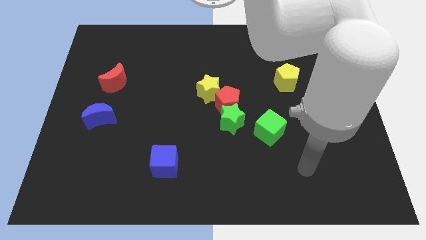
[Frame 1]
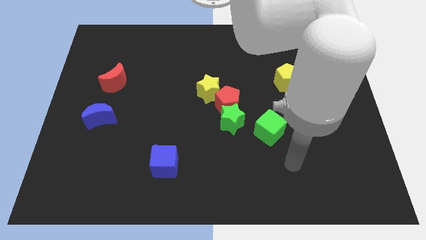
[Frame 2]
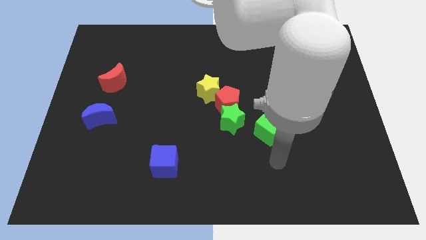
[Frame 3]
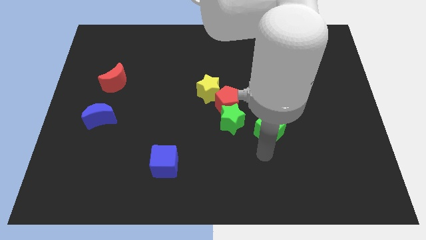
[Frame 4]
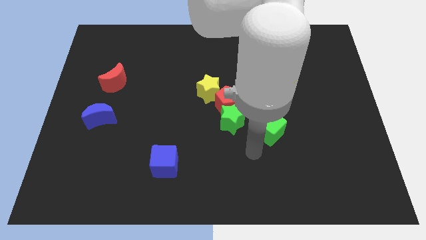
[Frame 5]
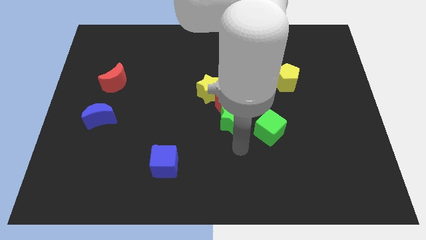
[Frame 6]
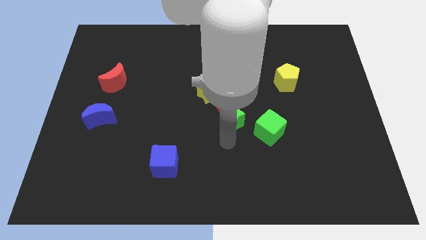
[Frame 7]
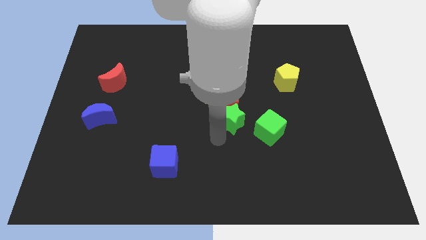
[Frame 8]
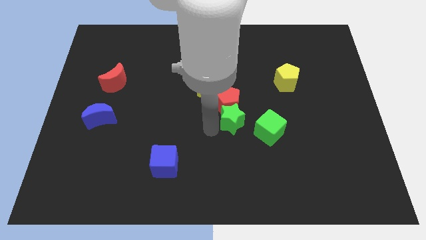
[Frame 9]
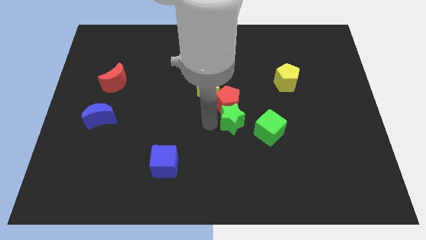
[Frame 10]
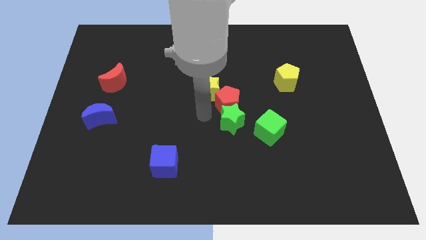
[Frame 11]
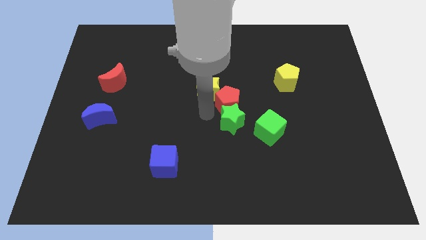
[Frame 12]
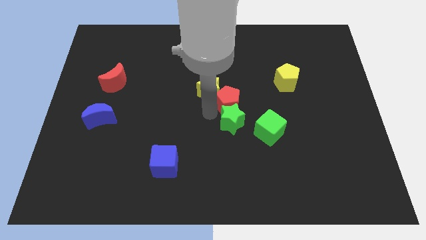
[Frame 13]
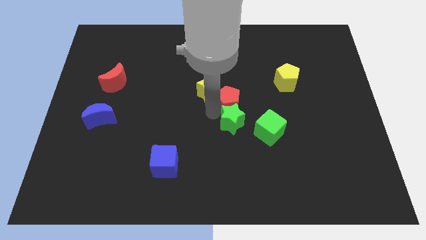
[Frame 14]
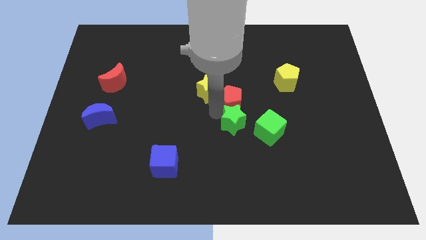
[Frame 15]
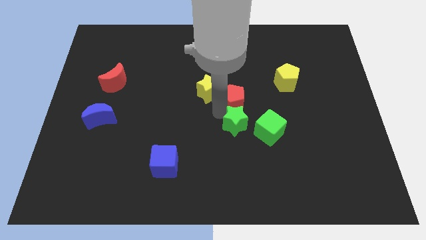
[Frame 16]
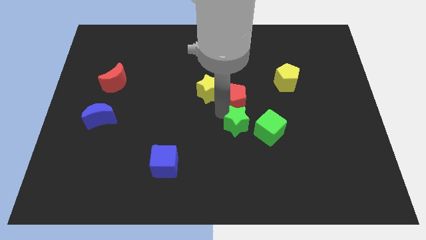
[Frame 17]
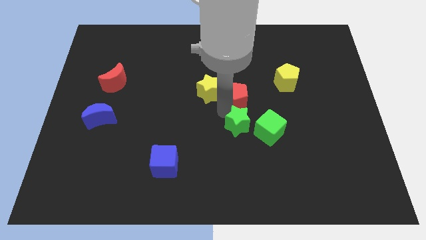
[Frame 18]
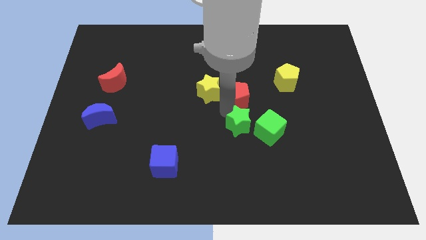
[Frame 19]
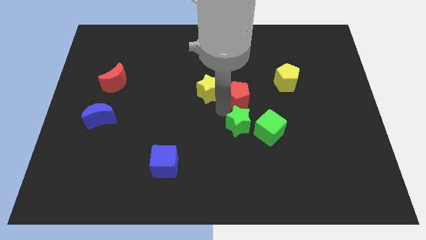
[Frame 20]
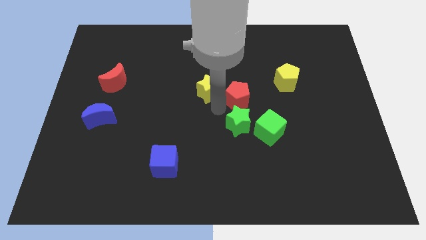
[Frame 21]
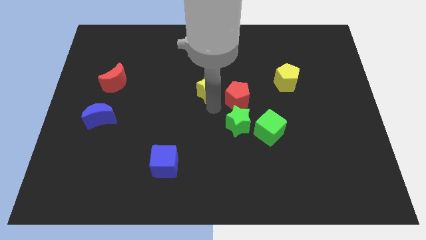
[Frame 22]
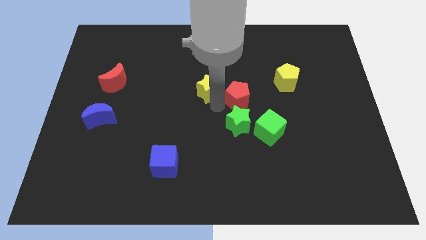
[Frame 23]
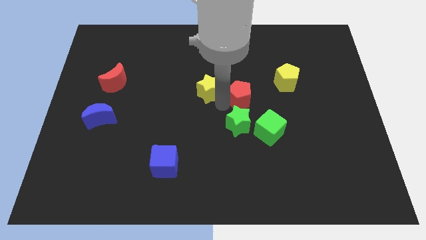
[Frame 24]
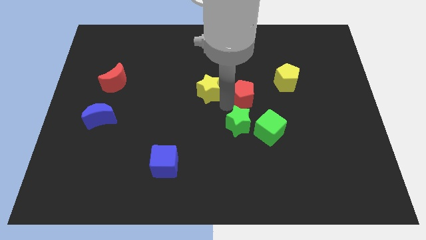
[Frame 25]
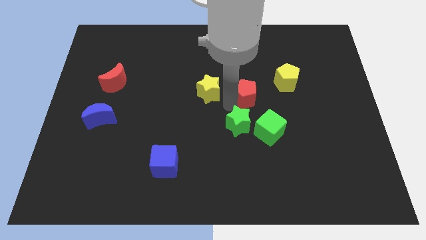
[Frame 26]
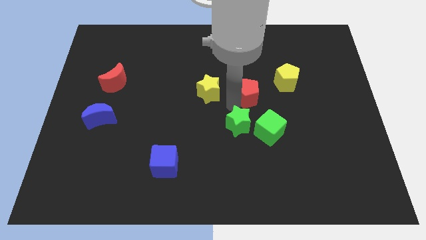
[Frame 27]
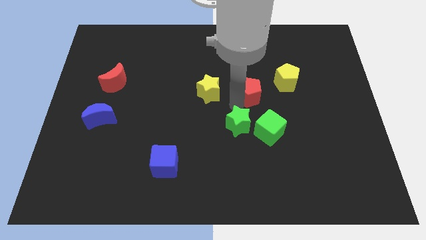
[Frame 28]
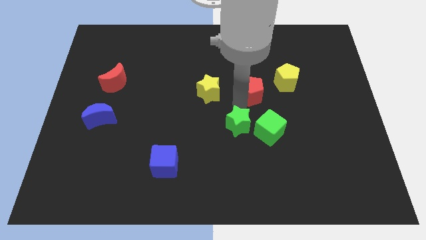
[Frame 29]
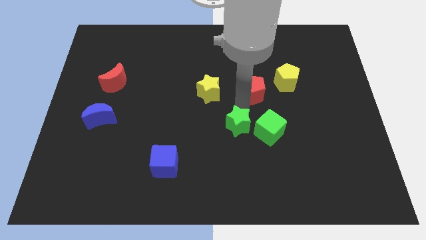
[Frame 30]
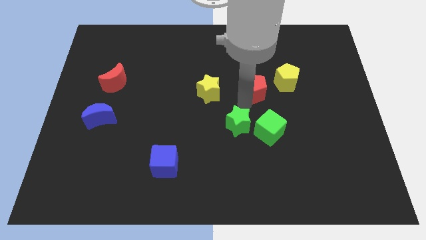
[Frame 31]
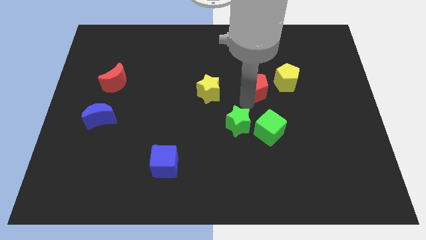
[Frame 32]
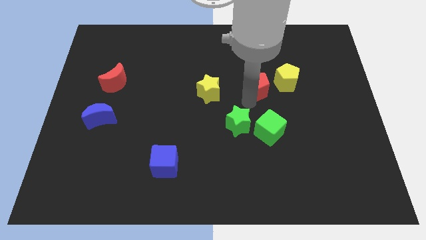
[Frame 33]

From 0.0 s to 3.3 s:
pull the red pentagon apart from the green star and yellow star

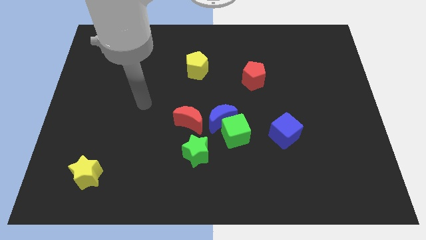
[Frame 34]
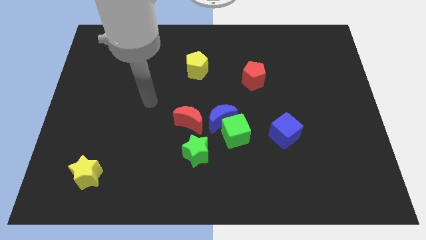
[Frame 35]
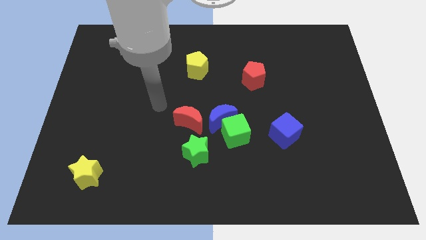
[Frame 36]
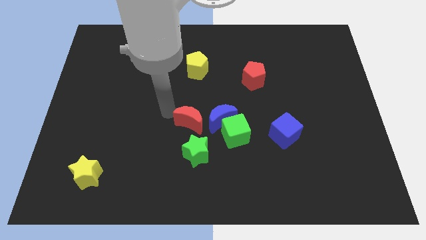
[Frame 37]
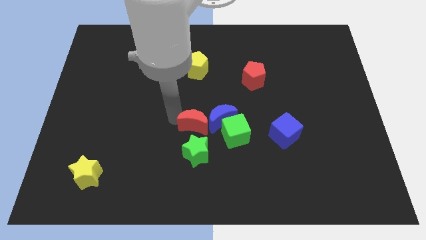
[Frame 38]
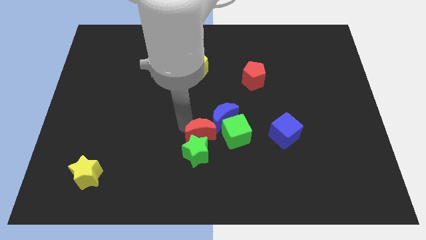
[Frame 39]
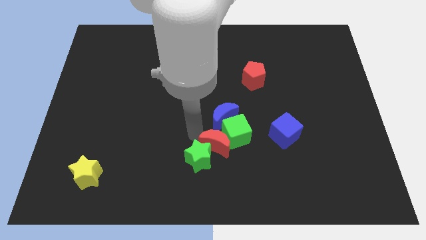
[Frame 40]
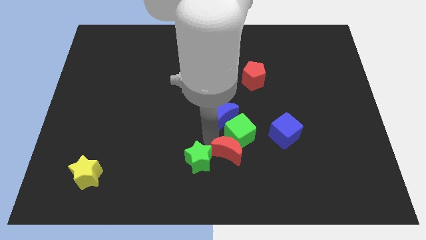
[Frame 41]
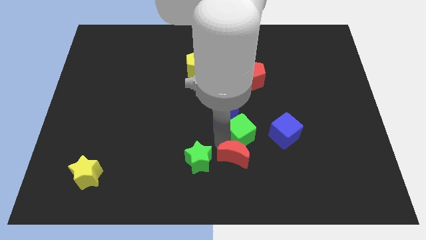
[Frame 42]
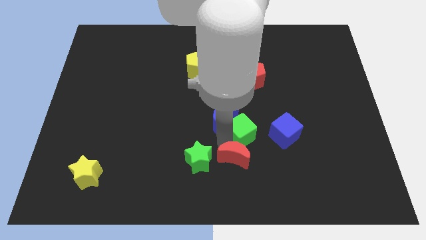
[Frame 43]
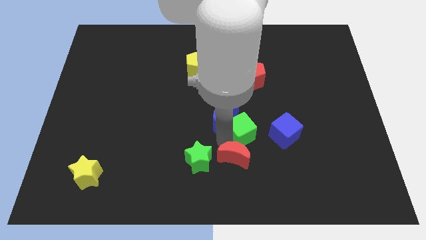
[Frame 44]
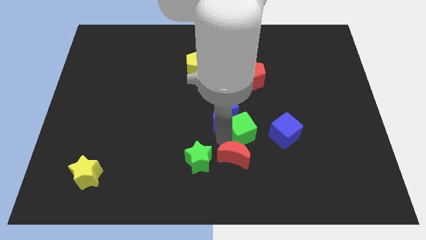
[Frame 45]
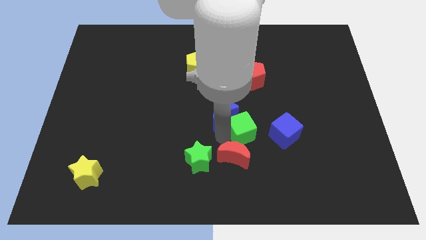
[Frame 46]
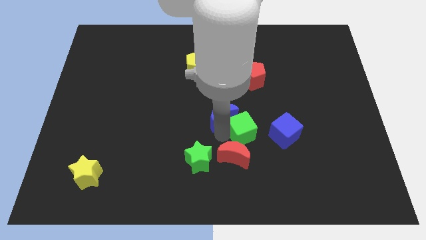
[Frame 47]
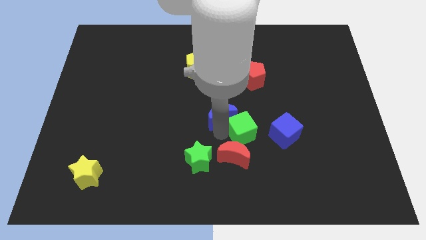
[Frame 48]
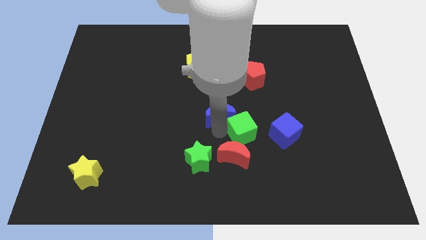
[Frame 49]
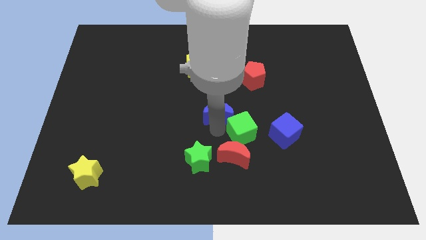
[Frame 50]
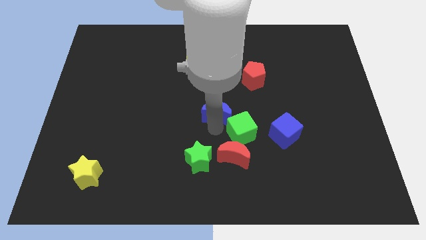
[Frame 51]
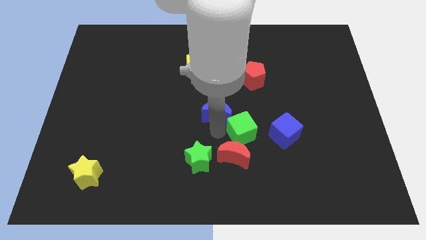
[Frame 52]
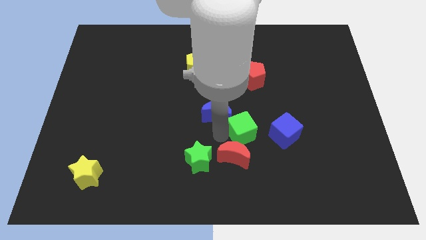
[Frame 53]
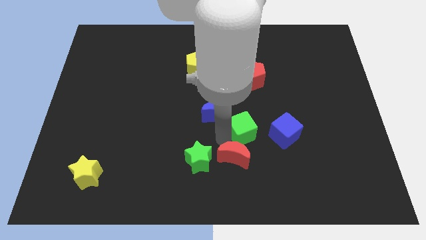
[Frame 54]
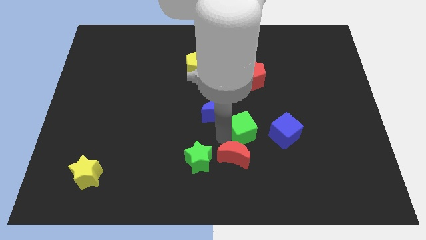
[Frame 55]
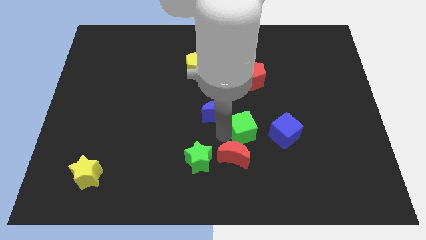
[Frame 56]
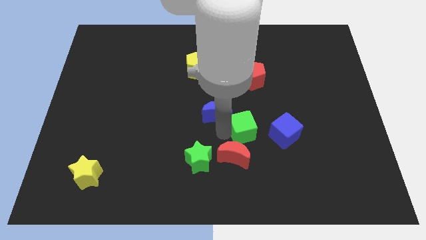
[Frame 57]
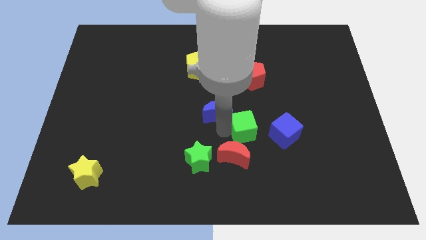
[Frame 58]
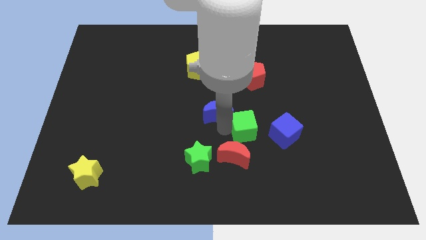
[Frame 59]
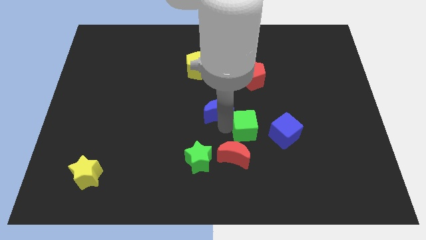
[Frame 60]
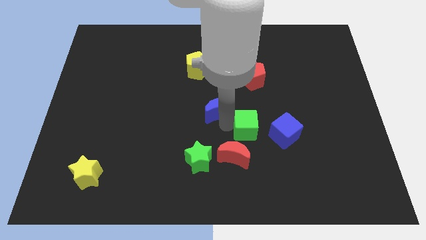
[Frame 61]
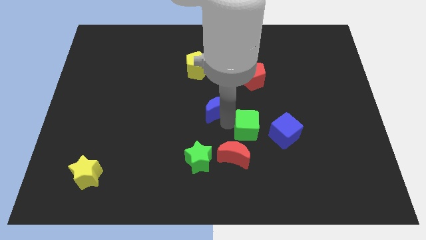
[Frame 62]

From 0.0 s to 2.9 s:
separate the blue moon from the group

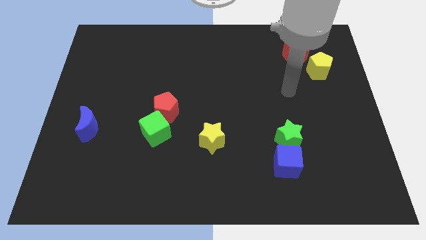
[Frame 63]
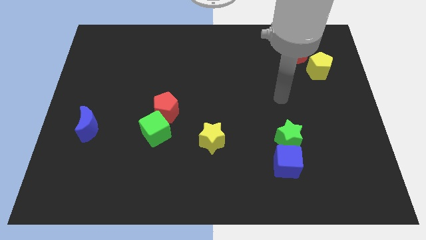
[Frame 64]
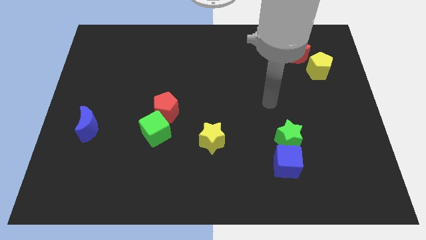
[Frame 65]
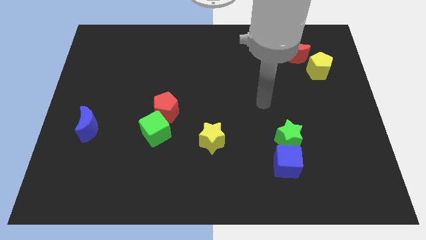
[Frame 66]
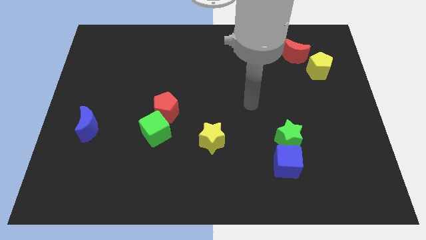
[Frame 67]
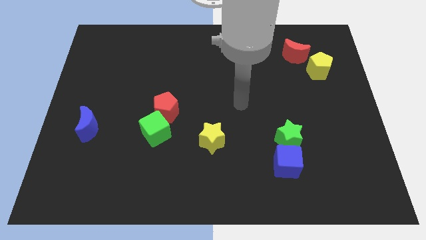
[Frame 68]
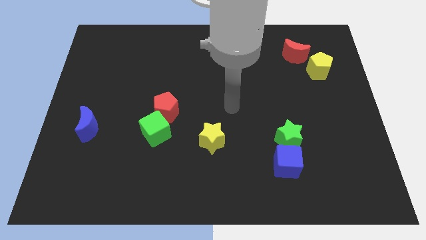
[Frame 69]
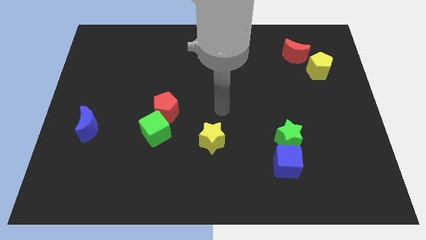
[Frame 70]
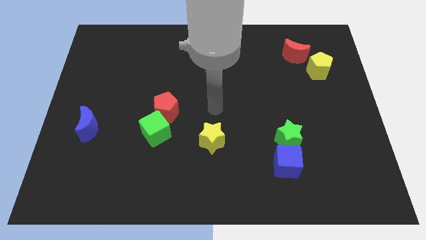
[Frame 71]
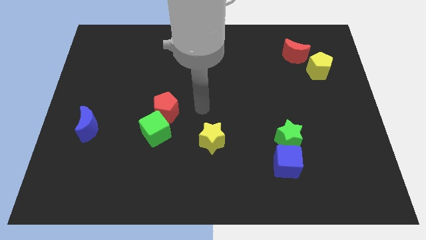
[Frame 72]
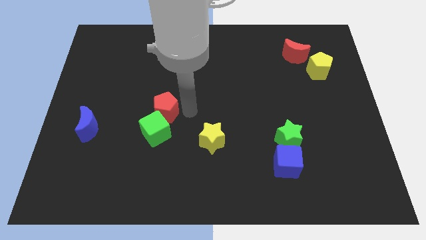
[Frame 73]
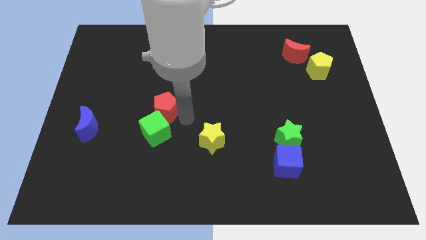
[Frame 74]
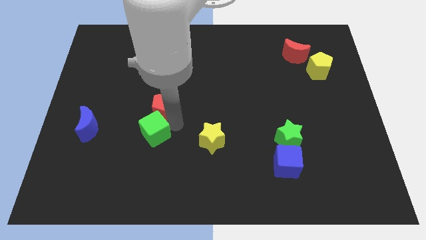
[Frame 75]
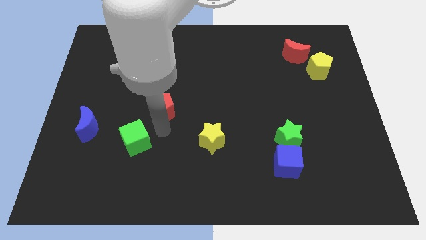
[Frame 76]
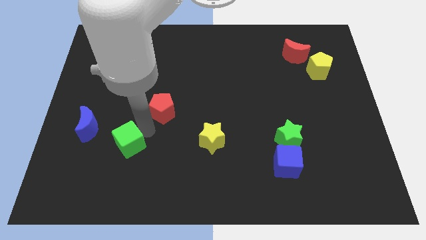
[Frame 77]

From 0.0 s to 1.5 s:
separate the red pentagon from the green cube

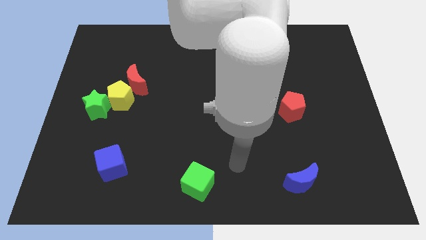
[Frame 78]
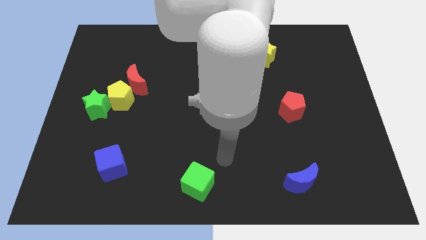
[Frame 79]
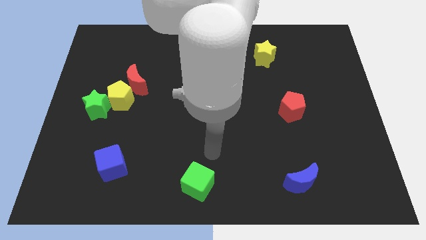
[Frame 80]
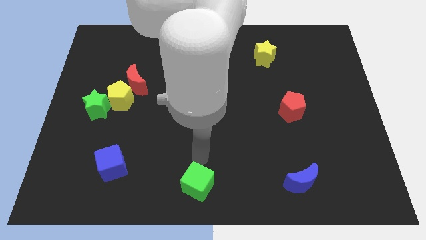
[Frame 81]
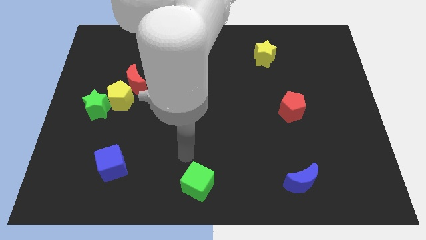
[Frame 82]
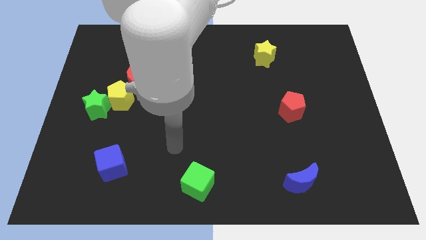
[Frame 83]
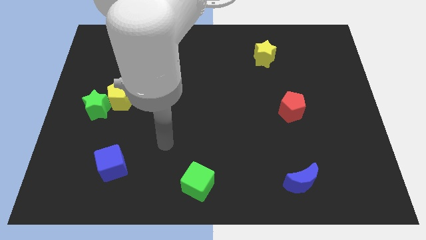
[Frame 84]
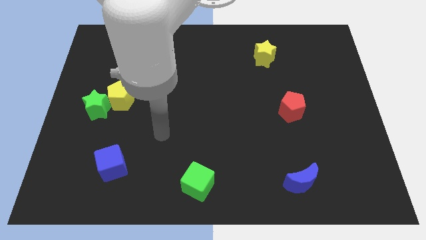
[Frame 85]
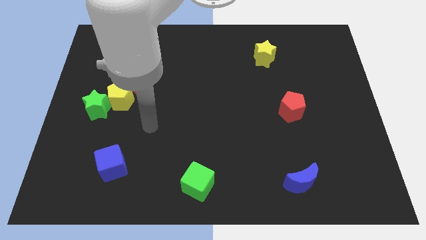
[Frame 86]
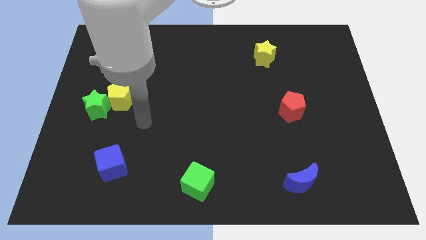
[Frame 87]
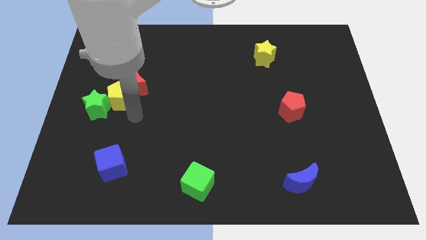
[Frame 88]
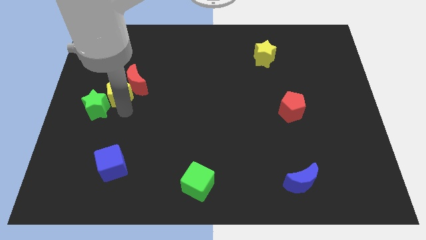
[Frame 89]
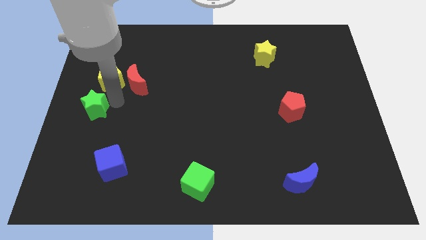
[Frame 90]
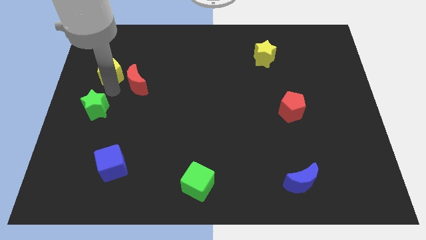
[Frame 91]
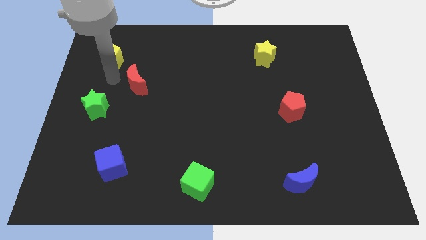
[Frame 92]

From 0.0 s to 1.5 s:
separate the red moon from the yellow pentagon

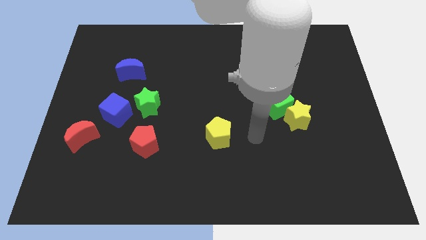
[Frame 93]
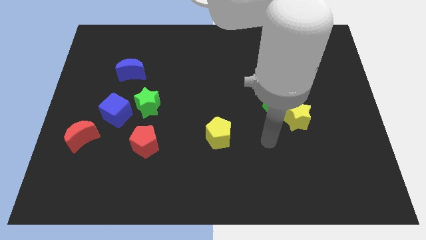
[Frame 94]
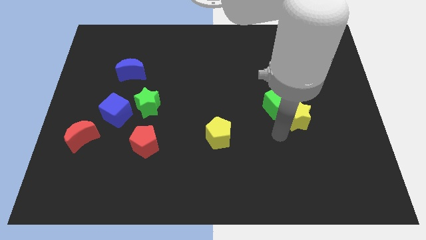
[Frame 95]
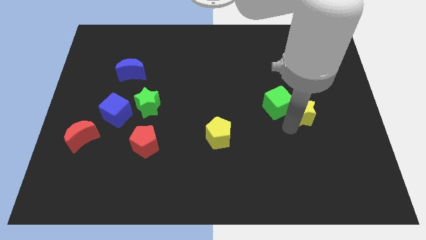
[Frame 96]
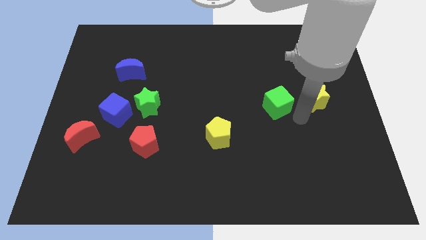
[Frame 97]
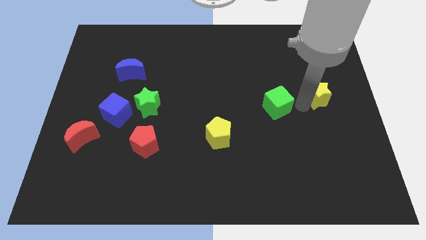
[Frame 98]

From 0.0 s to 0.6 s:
pull the green cube apart from the yellow star
